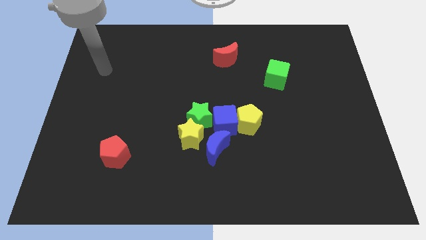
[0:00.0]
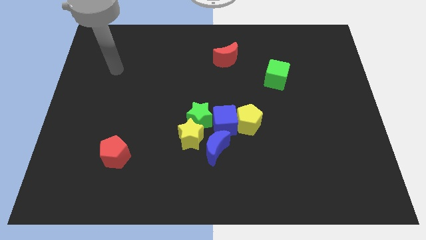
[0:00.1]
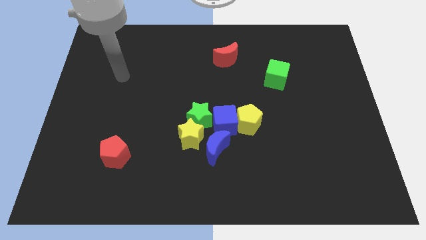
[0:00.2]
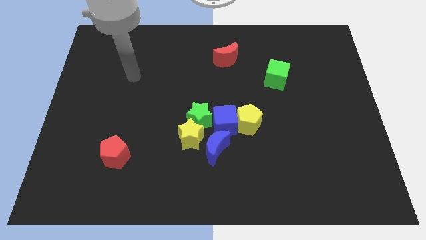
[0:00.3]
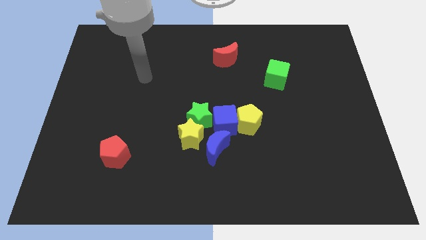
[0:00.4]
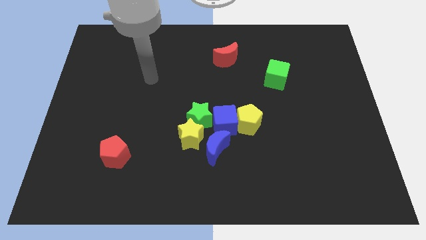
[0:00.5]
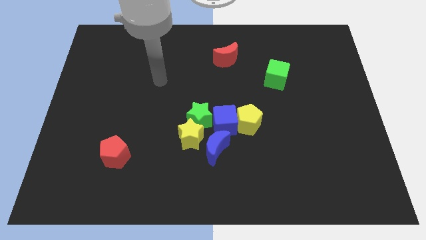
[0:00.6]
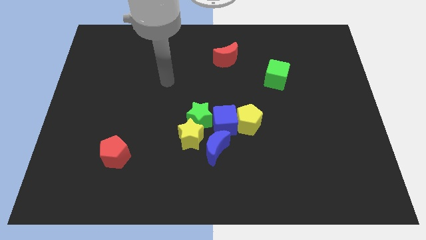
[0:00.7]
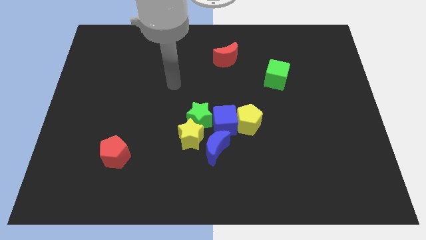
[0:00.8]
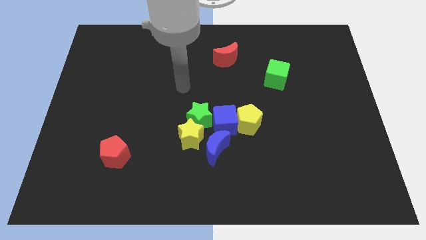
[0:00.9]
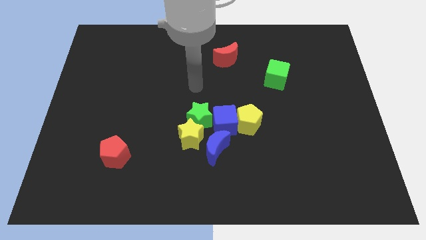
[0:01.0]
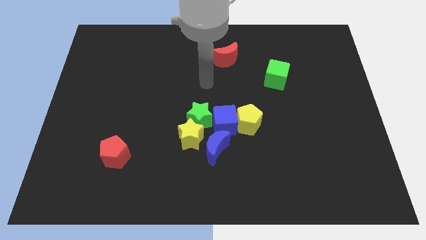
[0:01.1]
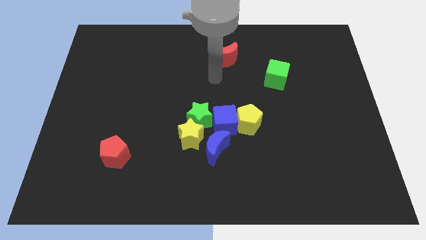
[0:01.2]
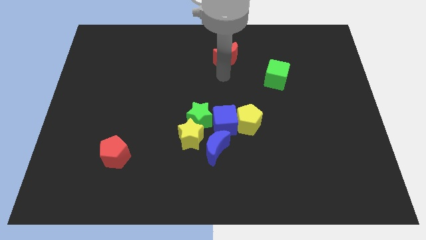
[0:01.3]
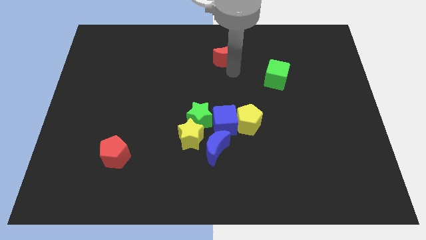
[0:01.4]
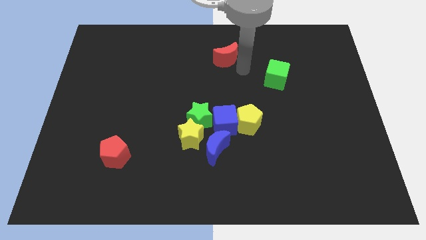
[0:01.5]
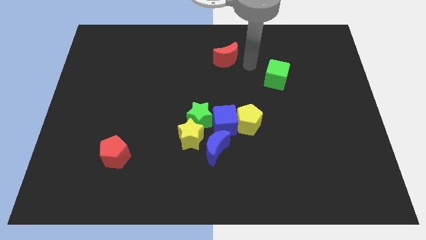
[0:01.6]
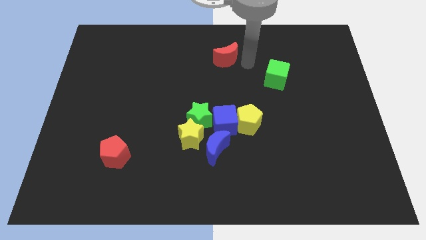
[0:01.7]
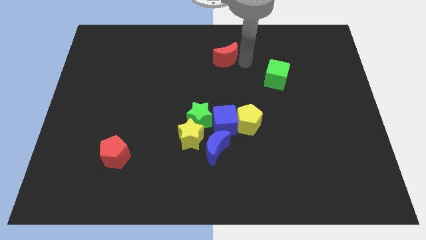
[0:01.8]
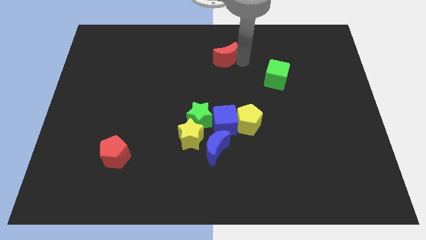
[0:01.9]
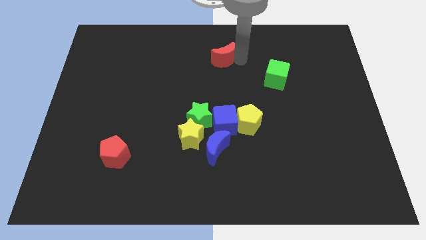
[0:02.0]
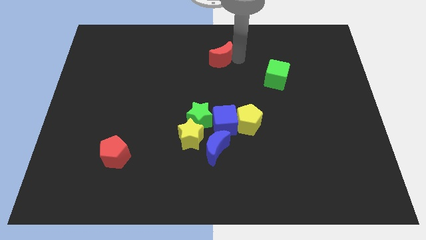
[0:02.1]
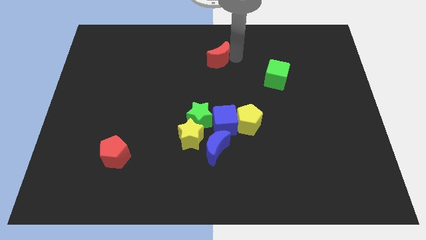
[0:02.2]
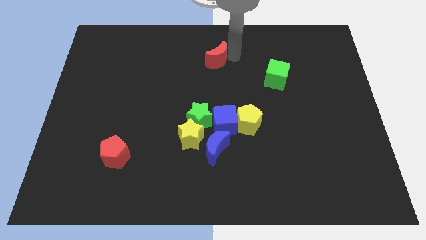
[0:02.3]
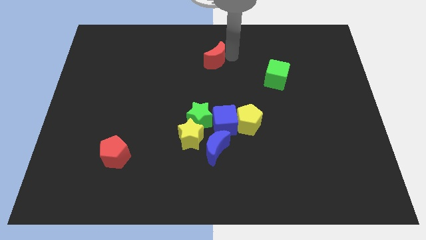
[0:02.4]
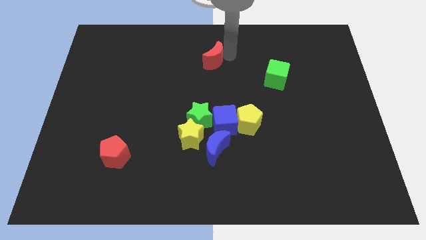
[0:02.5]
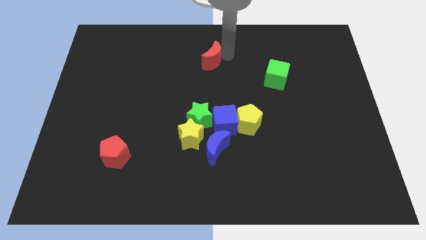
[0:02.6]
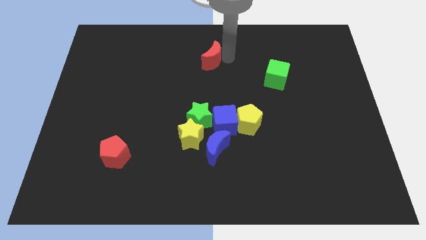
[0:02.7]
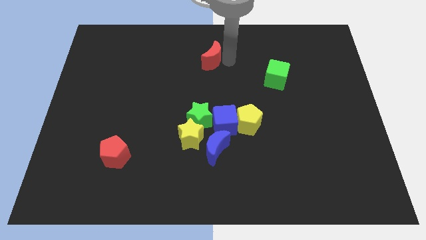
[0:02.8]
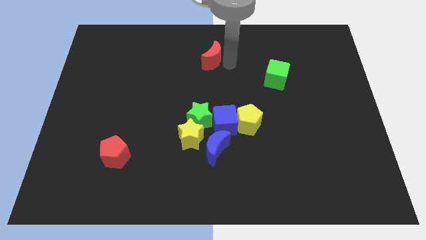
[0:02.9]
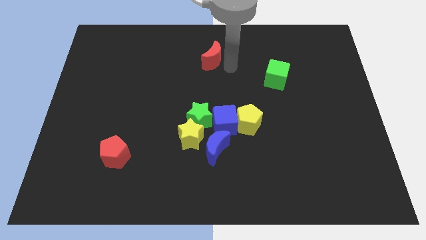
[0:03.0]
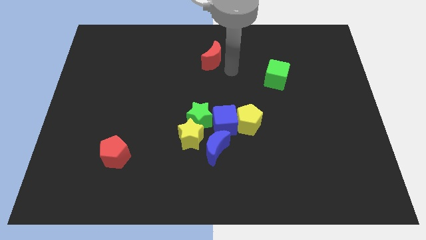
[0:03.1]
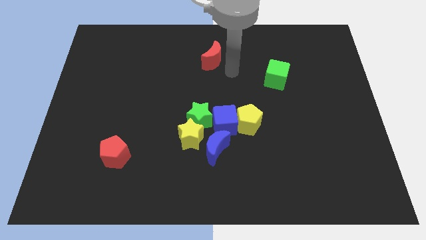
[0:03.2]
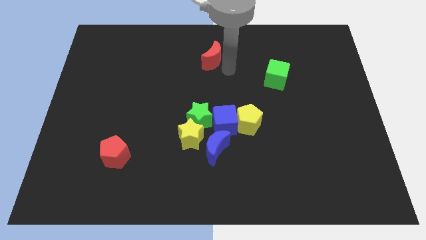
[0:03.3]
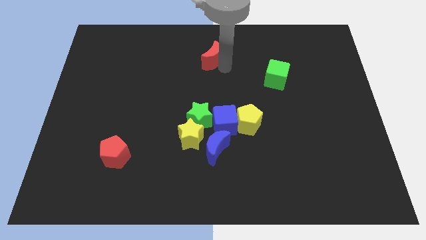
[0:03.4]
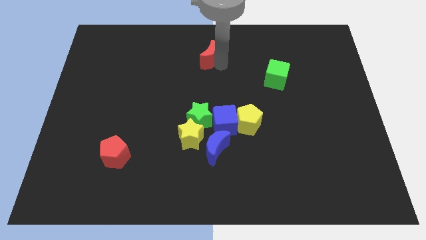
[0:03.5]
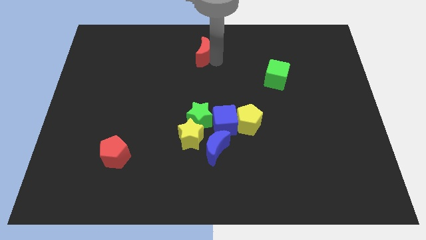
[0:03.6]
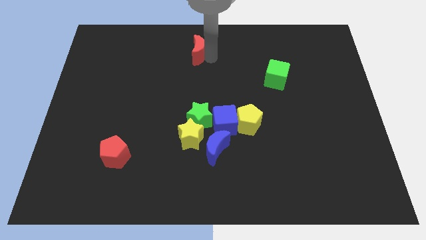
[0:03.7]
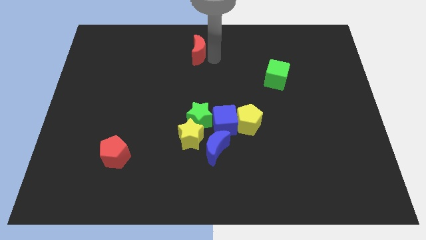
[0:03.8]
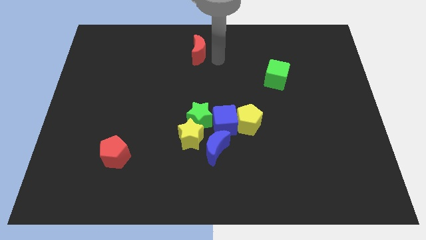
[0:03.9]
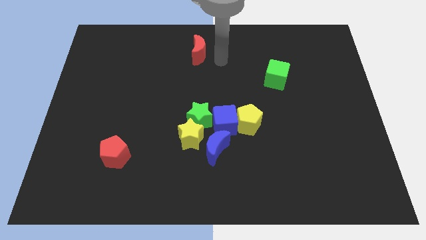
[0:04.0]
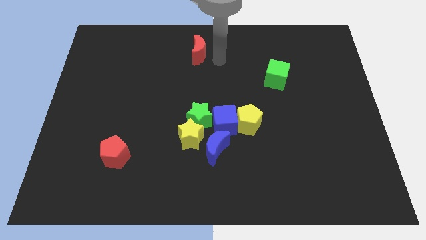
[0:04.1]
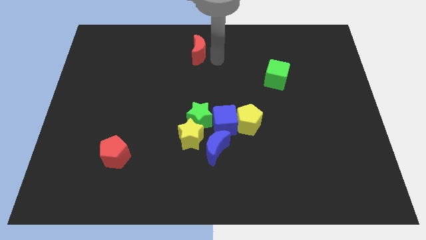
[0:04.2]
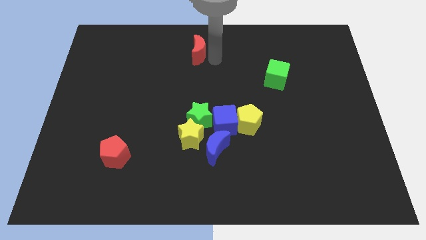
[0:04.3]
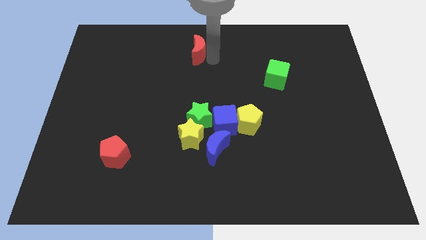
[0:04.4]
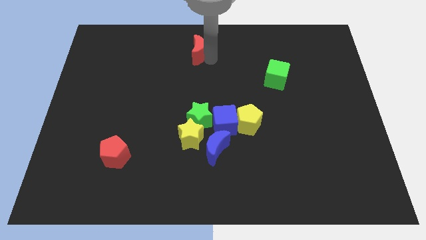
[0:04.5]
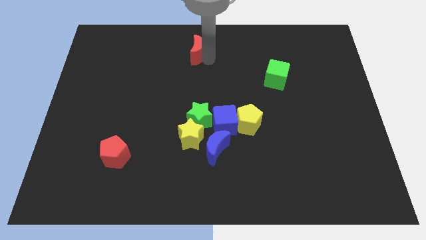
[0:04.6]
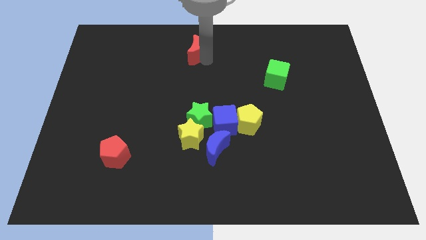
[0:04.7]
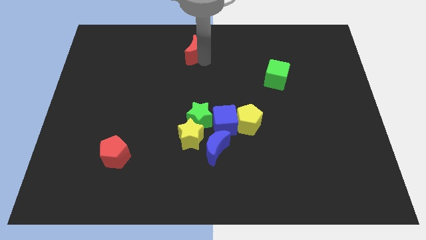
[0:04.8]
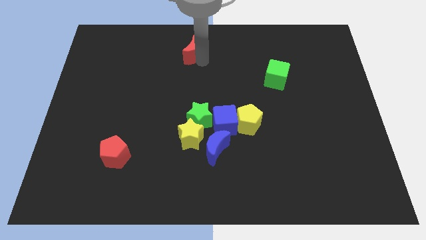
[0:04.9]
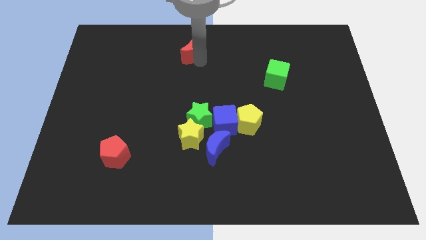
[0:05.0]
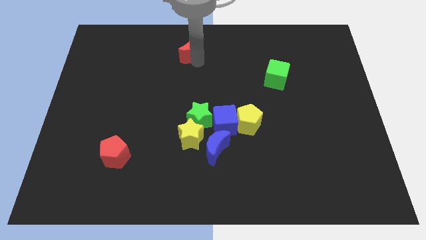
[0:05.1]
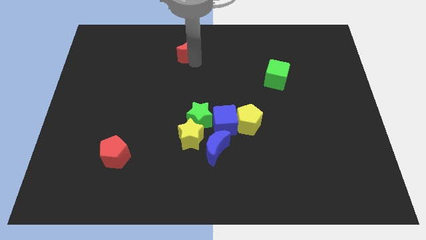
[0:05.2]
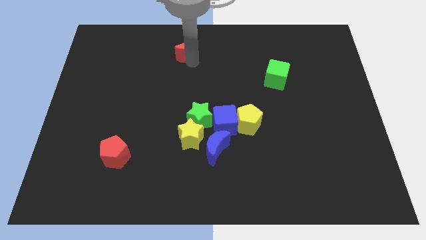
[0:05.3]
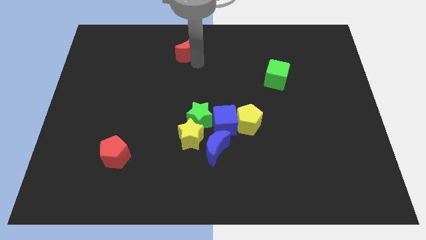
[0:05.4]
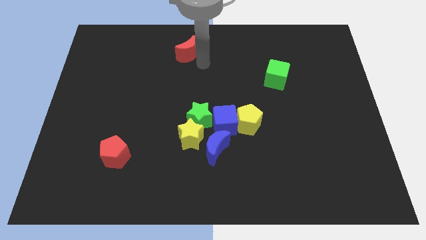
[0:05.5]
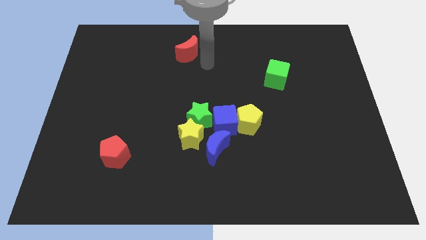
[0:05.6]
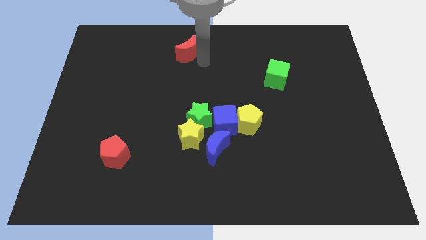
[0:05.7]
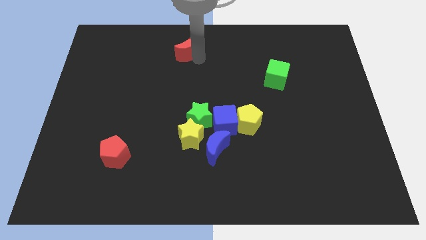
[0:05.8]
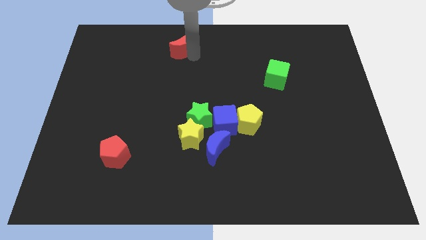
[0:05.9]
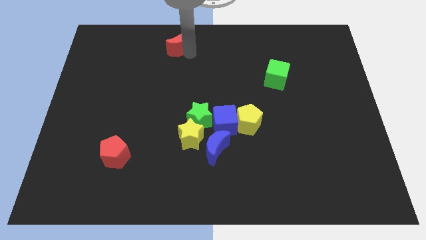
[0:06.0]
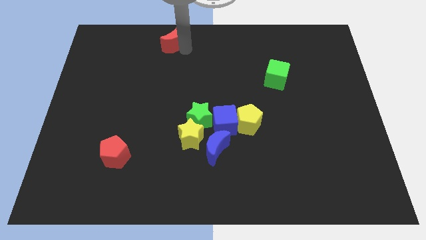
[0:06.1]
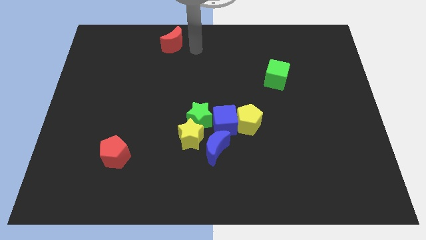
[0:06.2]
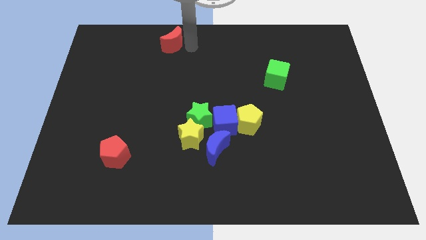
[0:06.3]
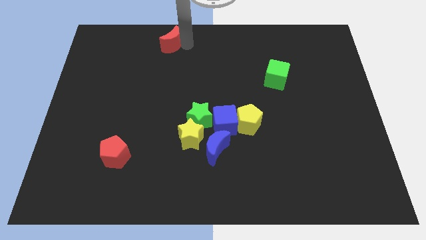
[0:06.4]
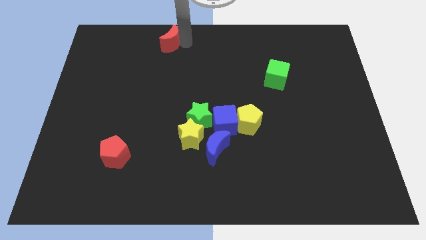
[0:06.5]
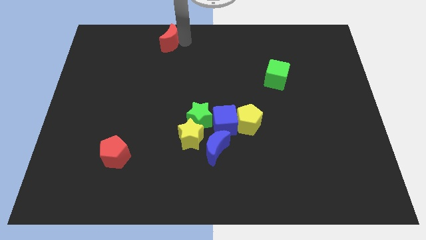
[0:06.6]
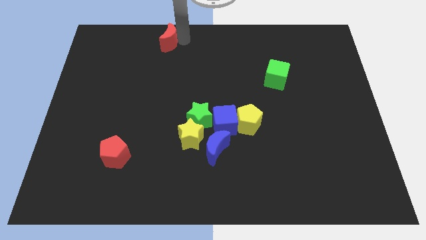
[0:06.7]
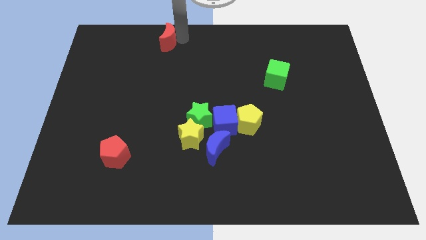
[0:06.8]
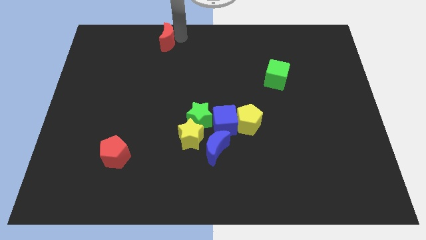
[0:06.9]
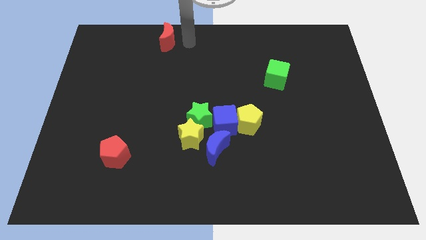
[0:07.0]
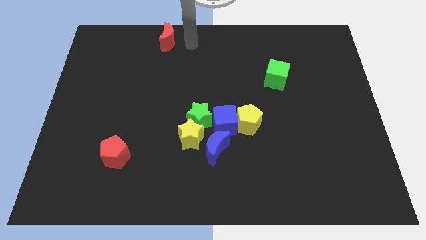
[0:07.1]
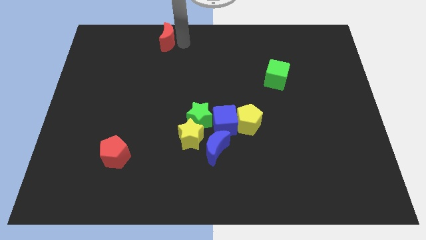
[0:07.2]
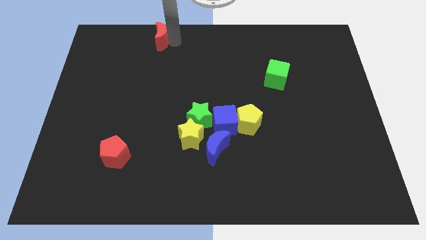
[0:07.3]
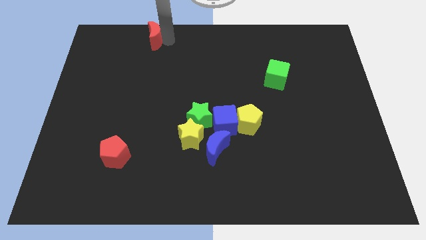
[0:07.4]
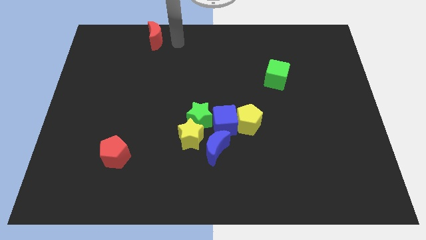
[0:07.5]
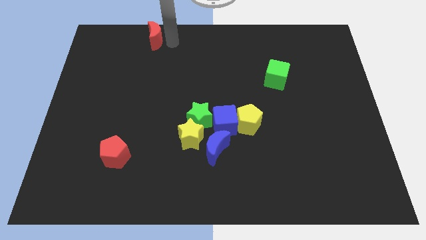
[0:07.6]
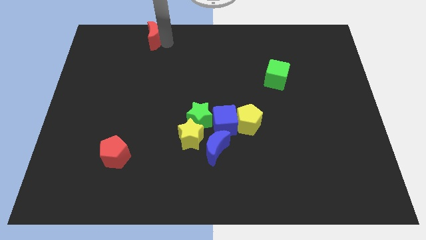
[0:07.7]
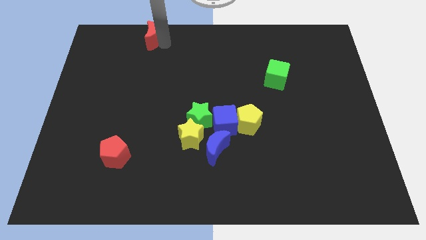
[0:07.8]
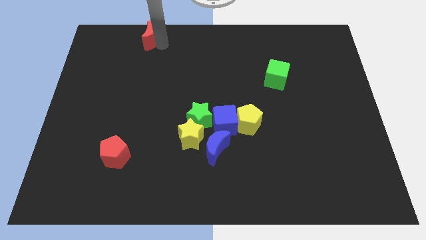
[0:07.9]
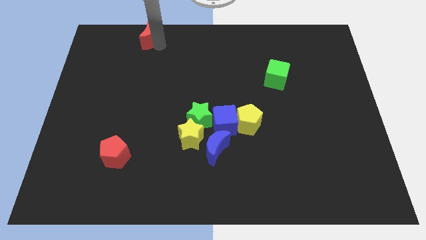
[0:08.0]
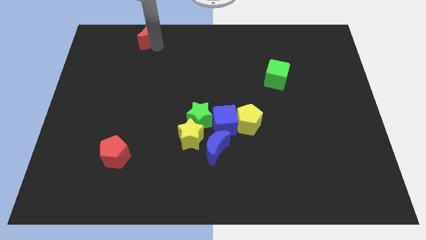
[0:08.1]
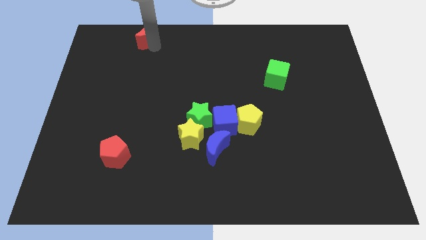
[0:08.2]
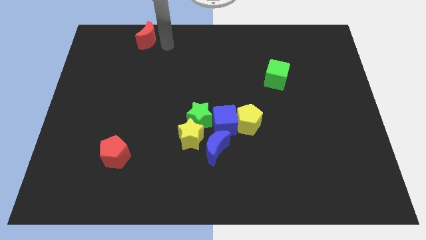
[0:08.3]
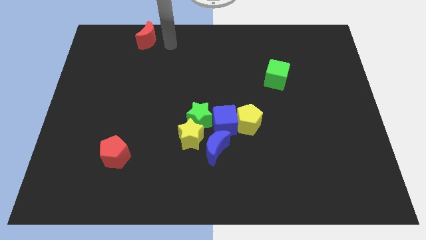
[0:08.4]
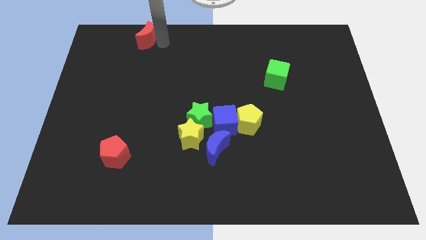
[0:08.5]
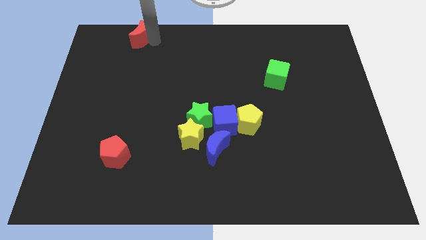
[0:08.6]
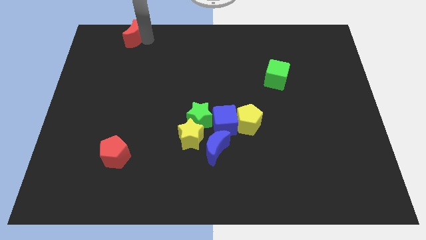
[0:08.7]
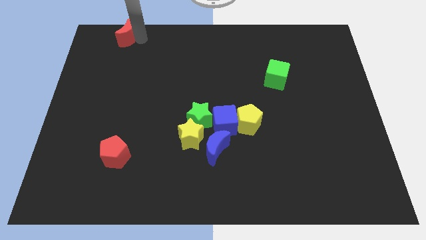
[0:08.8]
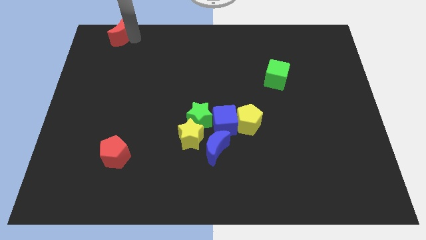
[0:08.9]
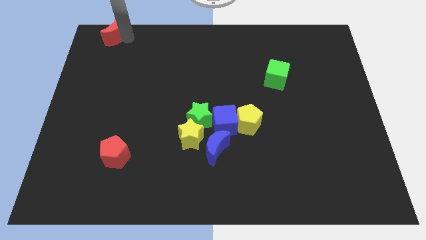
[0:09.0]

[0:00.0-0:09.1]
put the red moon to the top left corner
